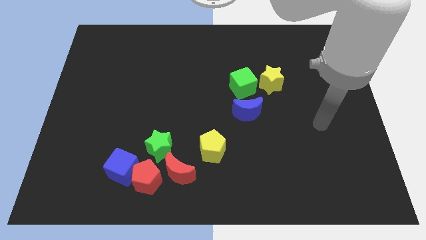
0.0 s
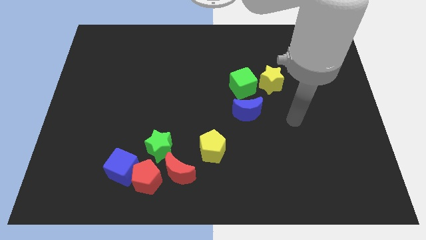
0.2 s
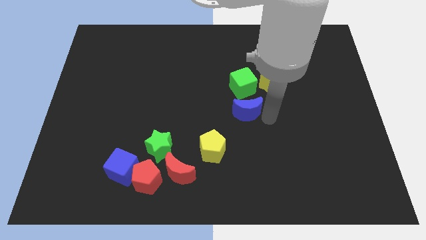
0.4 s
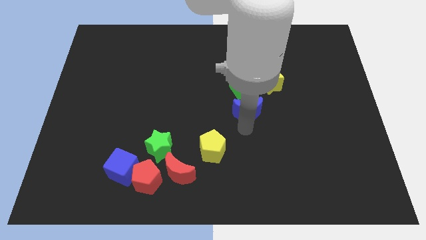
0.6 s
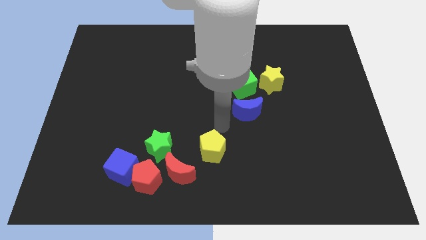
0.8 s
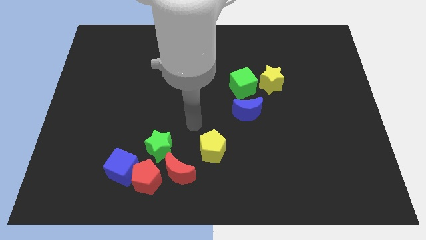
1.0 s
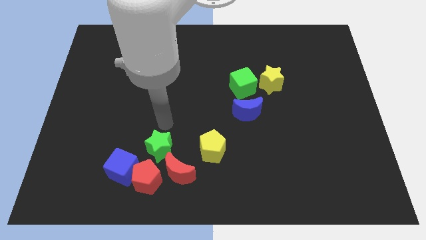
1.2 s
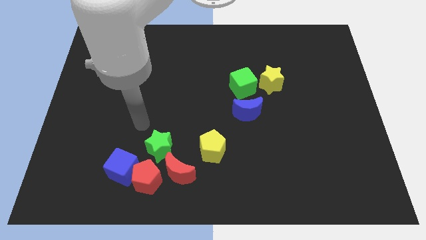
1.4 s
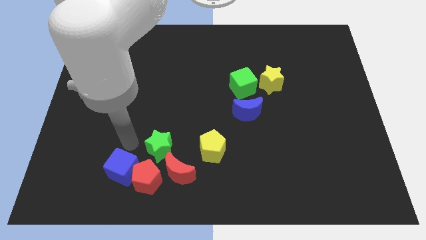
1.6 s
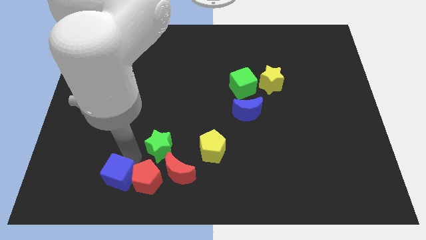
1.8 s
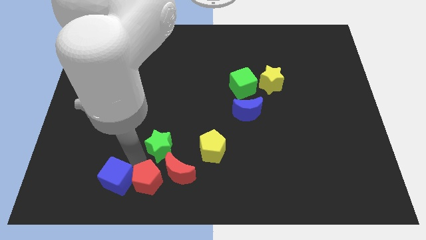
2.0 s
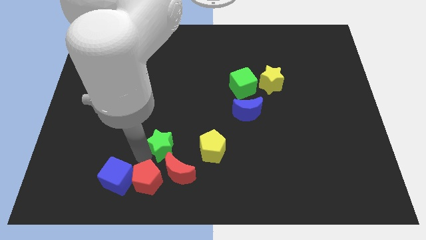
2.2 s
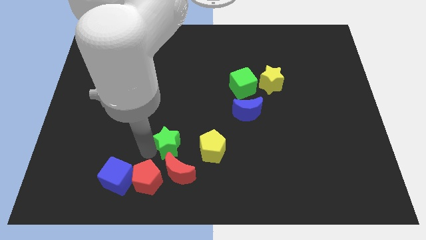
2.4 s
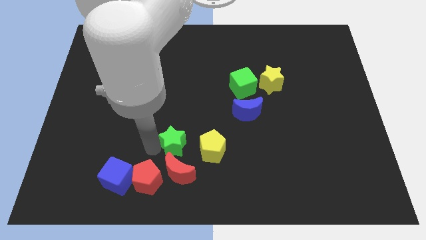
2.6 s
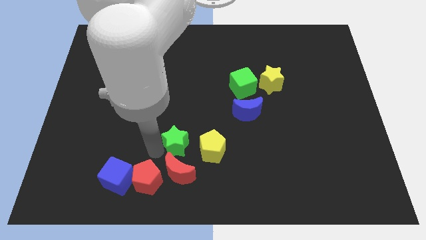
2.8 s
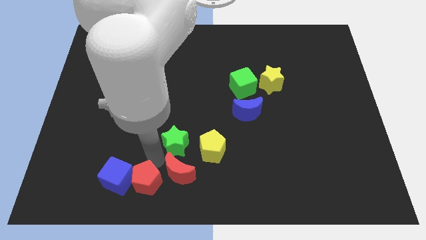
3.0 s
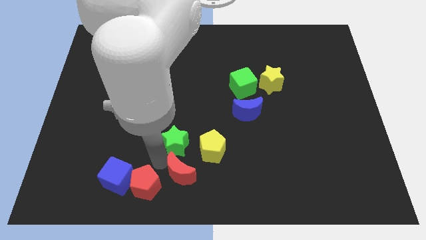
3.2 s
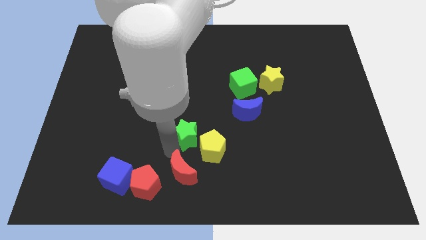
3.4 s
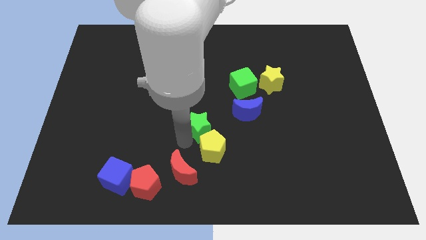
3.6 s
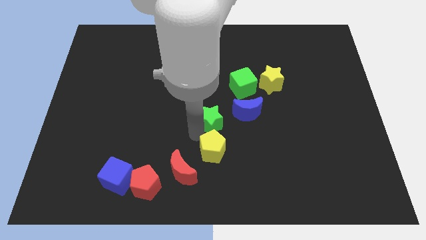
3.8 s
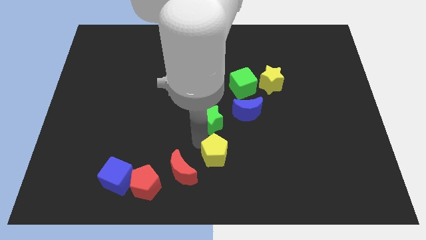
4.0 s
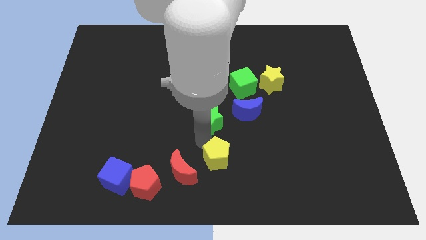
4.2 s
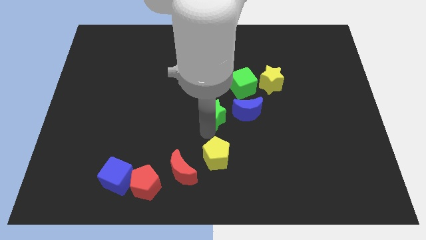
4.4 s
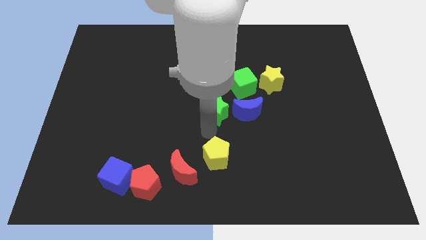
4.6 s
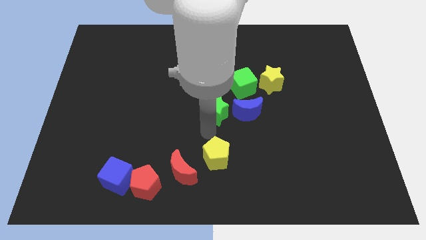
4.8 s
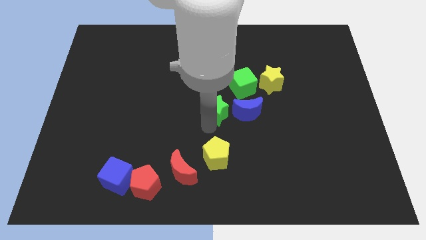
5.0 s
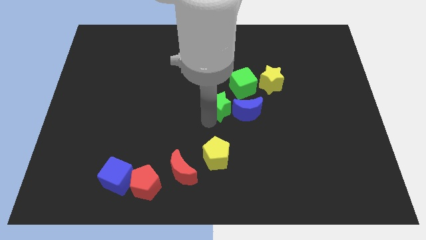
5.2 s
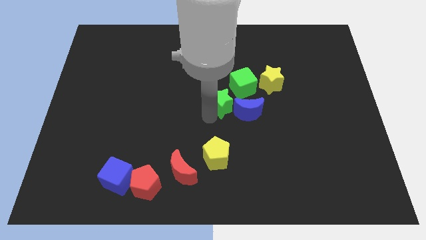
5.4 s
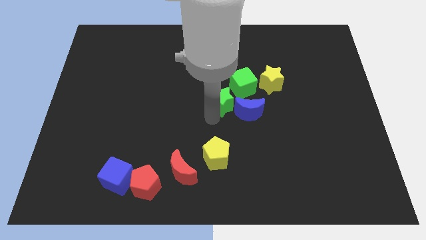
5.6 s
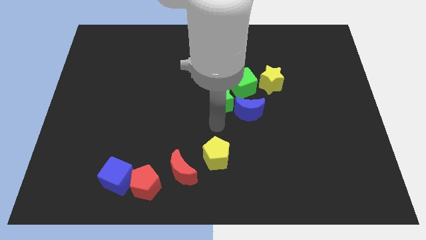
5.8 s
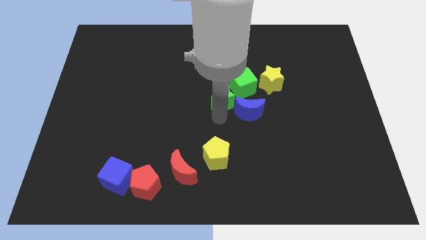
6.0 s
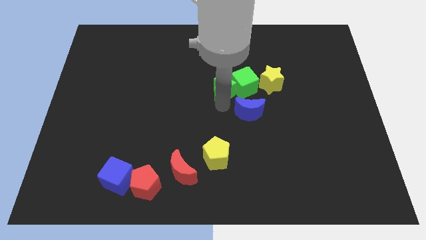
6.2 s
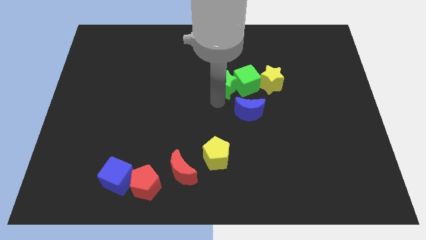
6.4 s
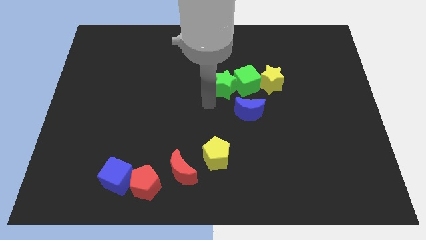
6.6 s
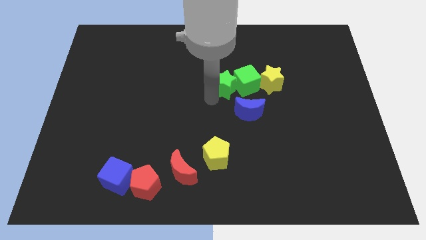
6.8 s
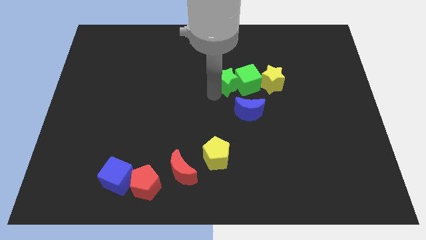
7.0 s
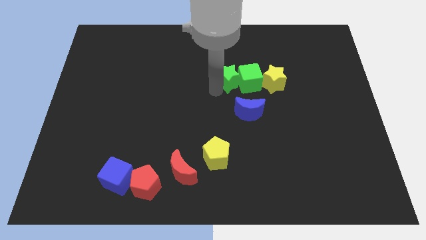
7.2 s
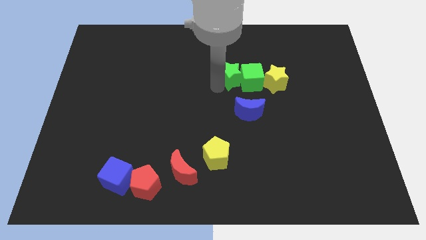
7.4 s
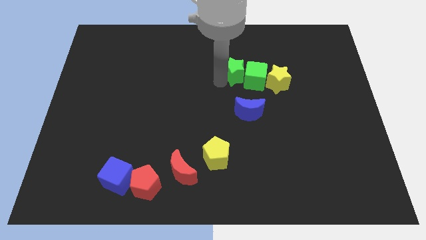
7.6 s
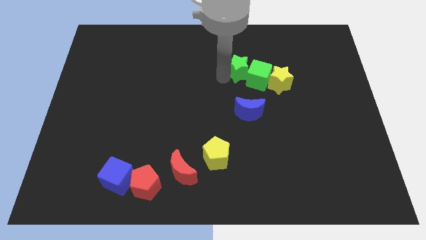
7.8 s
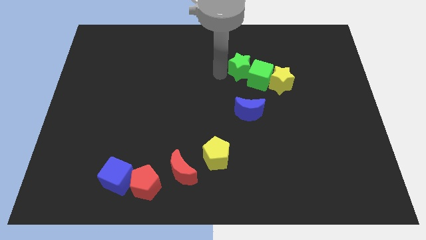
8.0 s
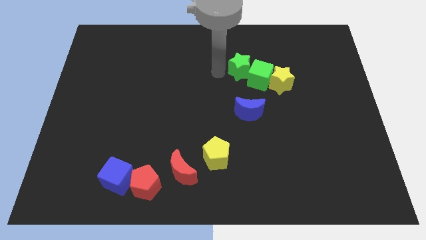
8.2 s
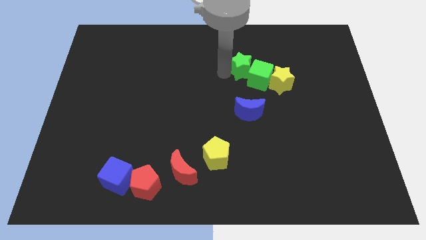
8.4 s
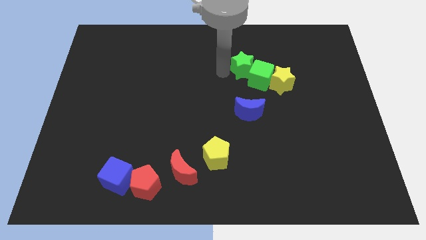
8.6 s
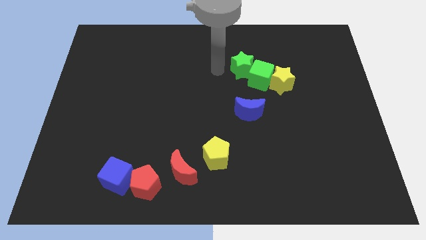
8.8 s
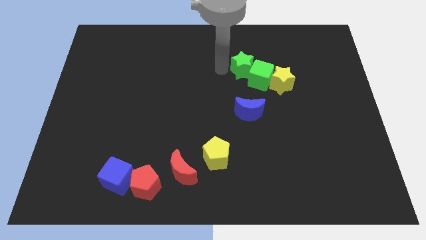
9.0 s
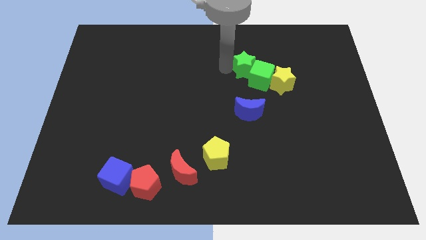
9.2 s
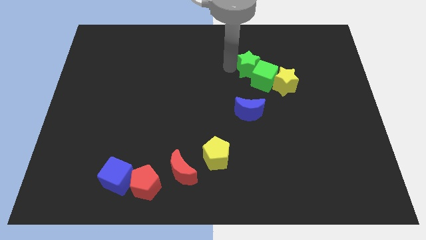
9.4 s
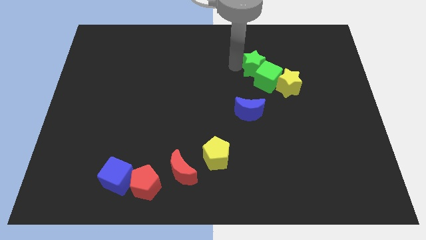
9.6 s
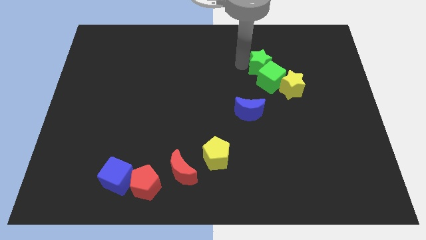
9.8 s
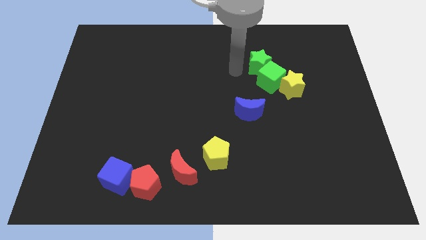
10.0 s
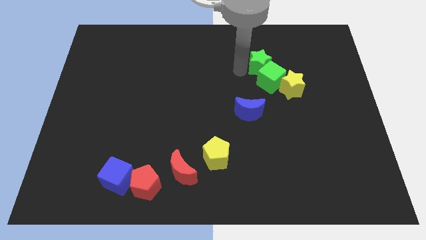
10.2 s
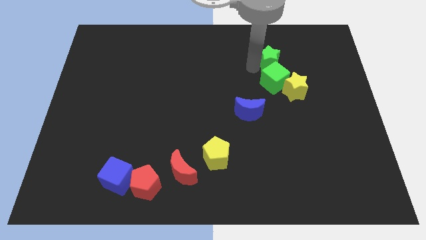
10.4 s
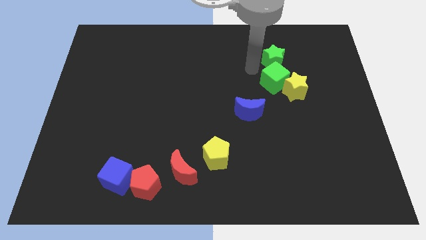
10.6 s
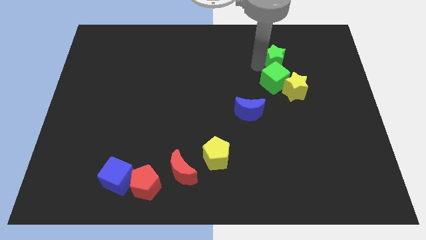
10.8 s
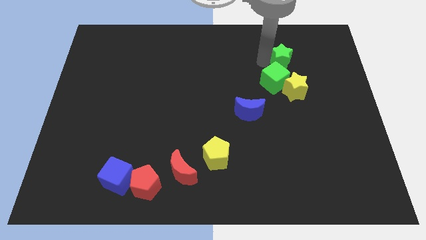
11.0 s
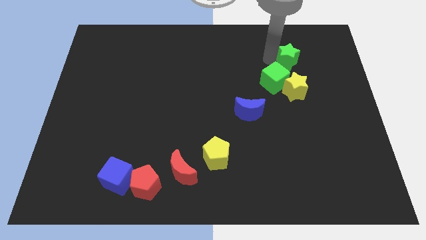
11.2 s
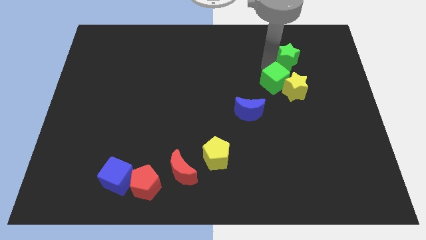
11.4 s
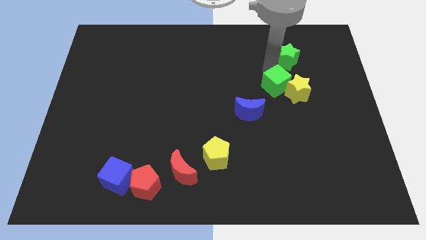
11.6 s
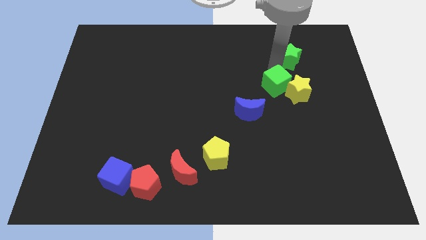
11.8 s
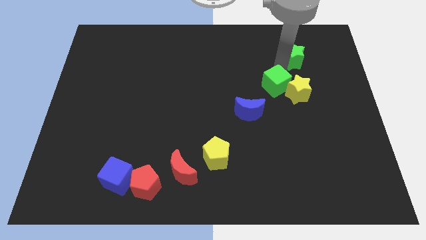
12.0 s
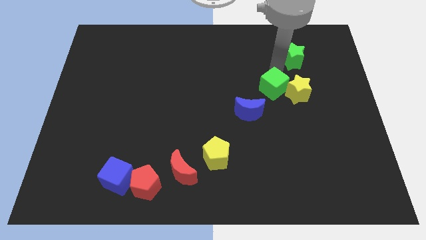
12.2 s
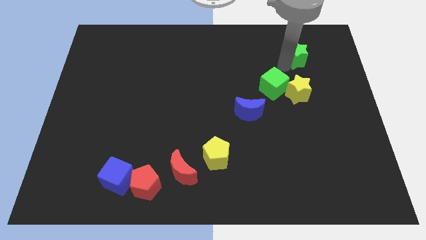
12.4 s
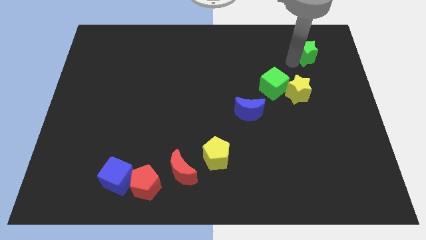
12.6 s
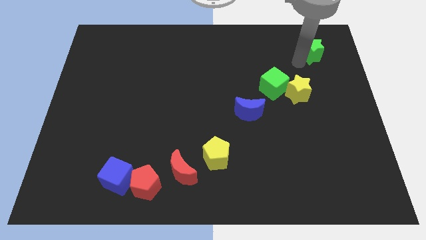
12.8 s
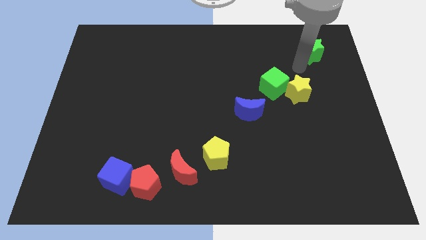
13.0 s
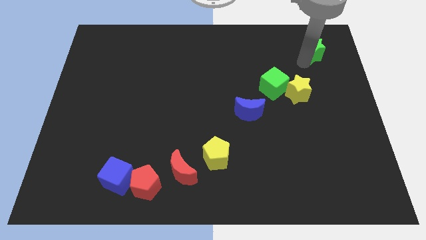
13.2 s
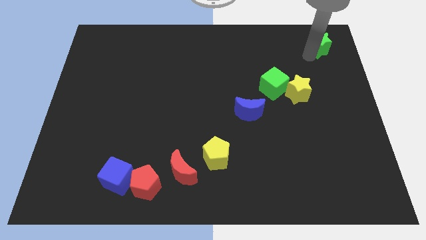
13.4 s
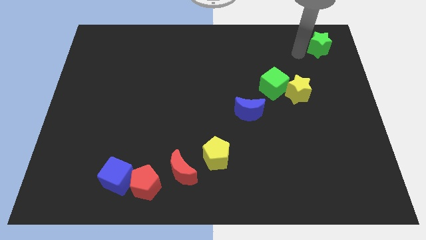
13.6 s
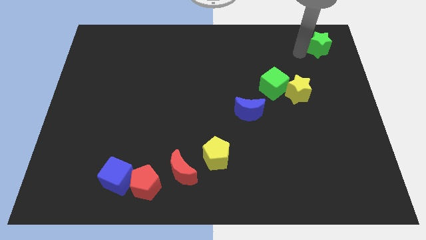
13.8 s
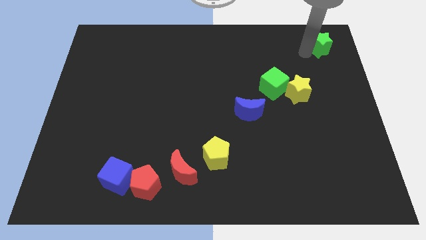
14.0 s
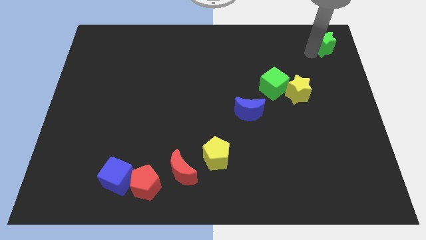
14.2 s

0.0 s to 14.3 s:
put the green star to the top right of the board
